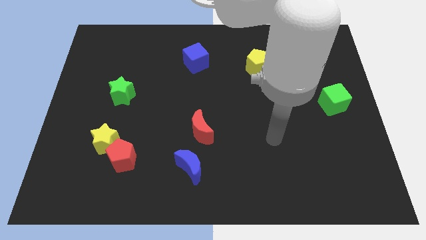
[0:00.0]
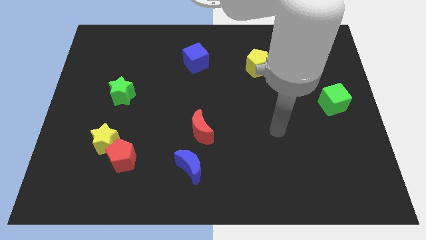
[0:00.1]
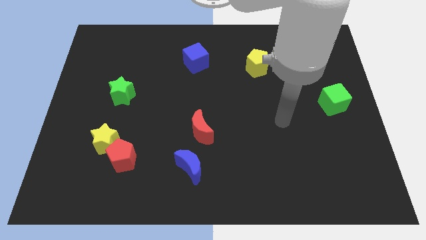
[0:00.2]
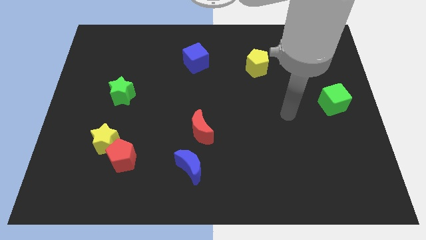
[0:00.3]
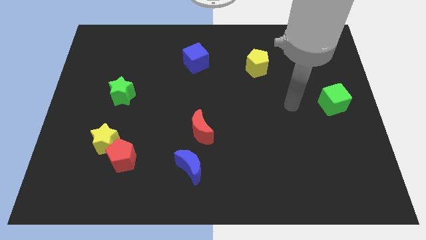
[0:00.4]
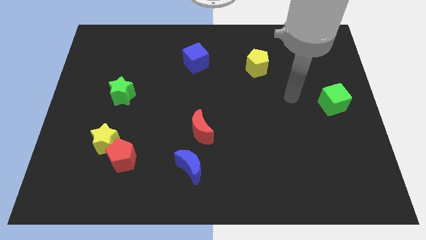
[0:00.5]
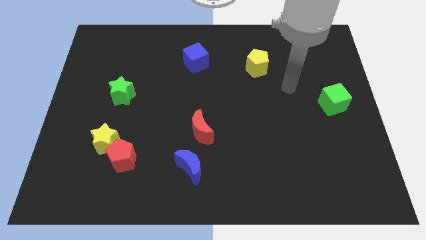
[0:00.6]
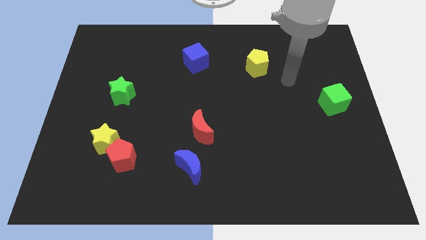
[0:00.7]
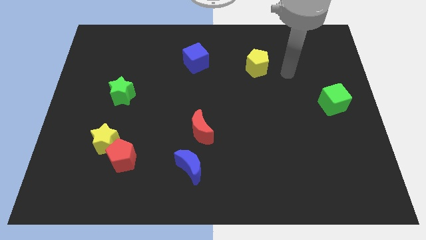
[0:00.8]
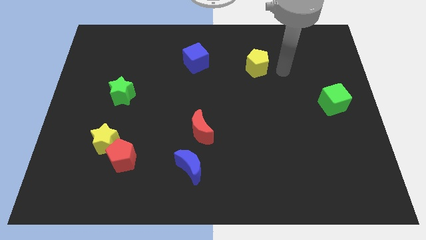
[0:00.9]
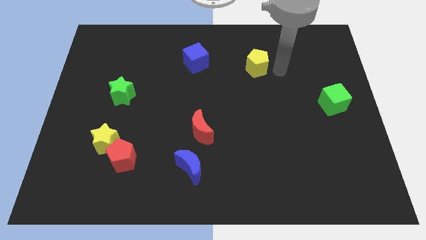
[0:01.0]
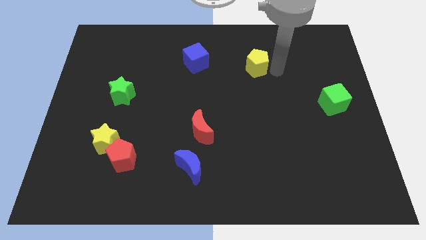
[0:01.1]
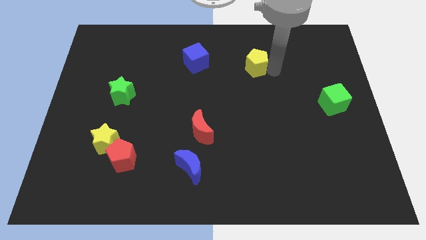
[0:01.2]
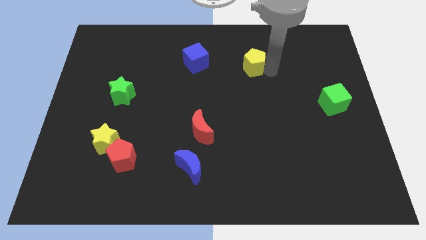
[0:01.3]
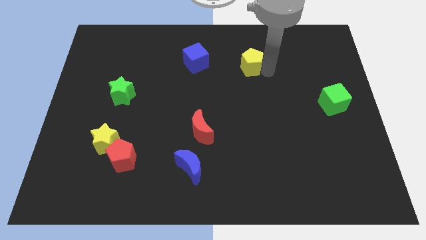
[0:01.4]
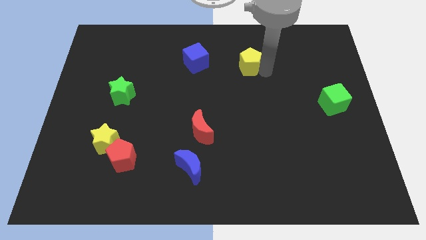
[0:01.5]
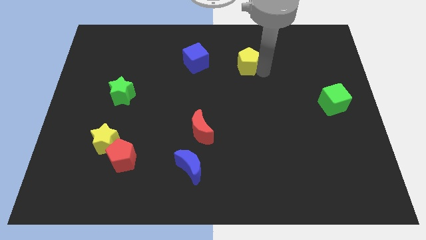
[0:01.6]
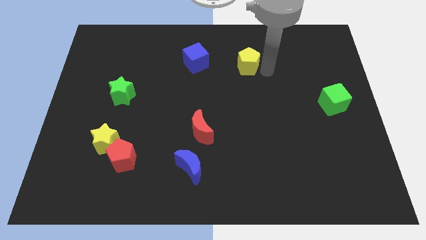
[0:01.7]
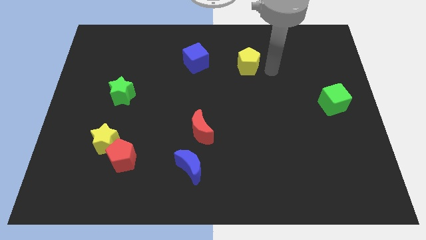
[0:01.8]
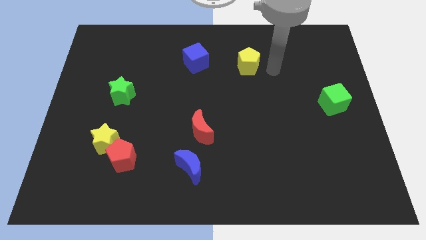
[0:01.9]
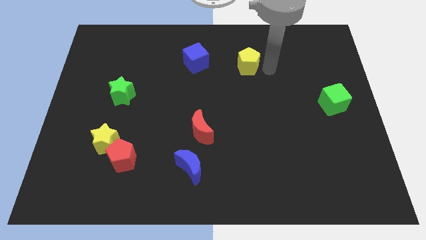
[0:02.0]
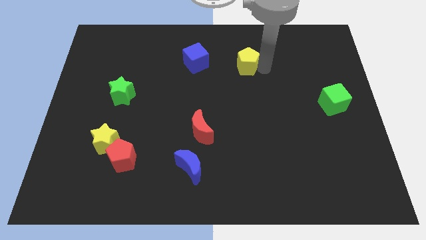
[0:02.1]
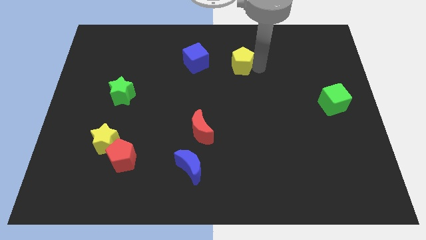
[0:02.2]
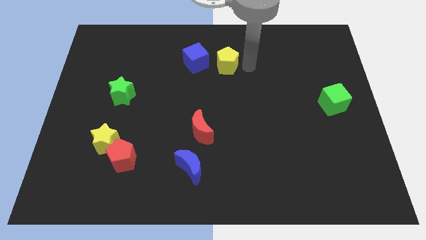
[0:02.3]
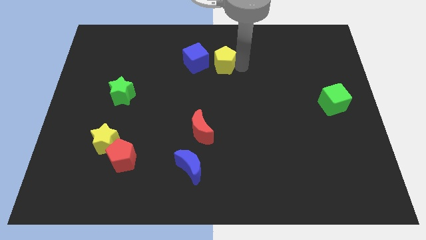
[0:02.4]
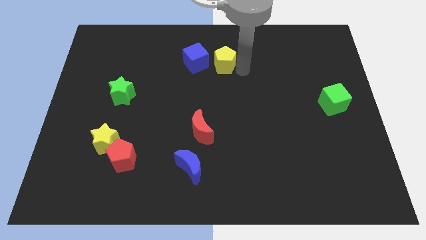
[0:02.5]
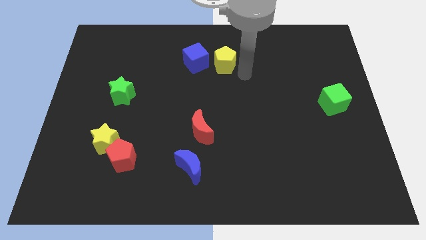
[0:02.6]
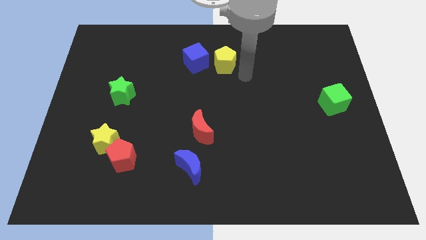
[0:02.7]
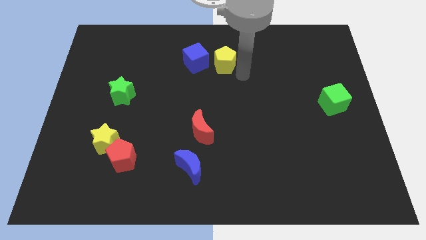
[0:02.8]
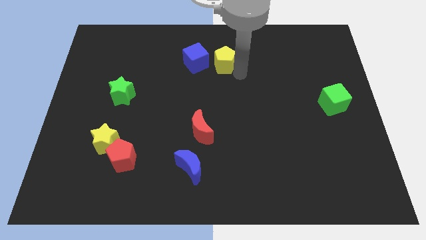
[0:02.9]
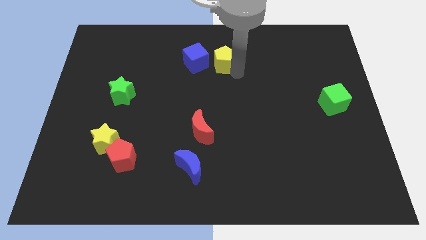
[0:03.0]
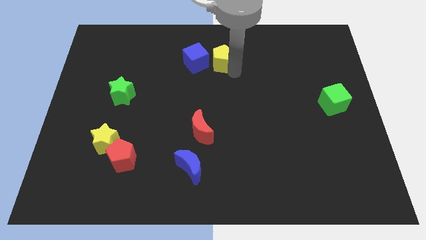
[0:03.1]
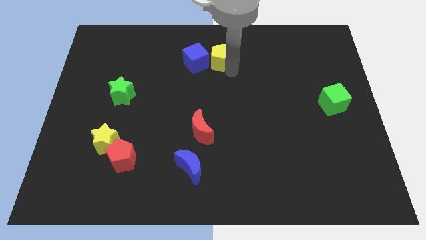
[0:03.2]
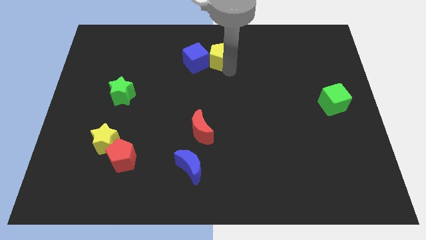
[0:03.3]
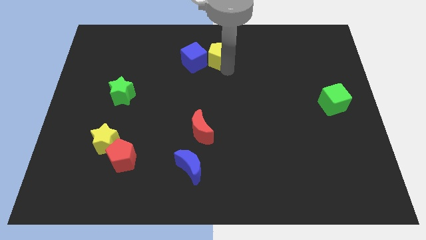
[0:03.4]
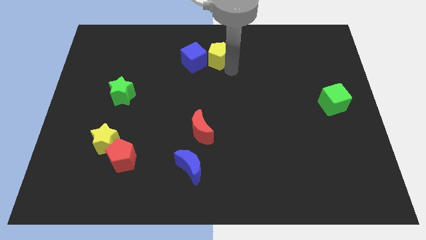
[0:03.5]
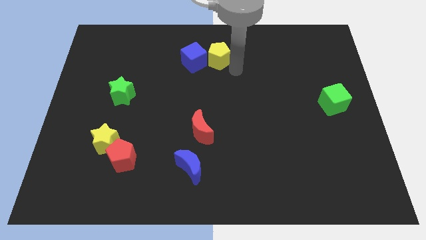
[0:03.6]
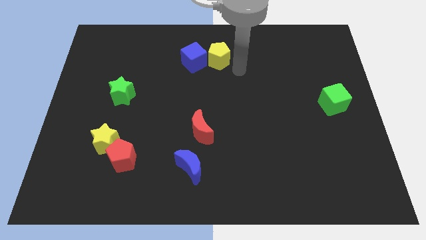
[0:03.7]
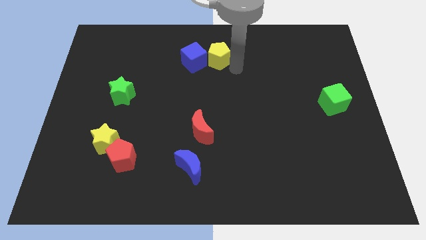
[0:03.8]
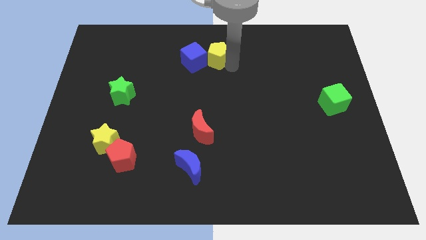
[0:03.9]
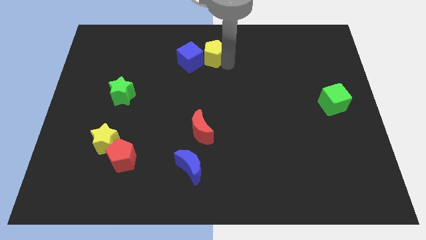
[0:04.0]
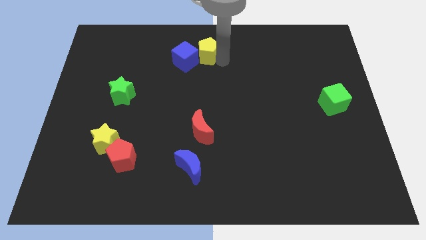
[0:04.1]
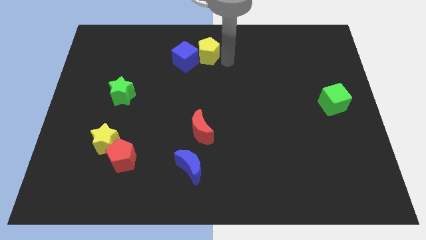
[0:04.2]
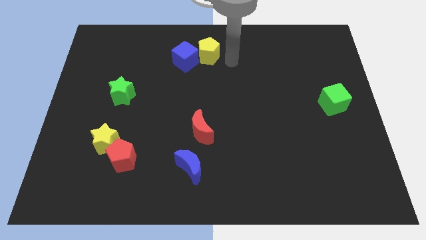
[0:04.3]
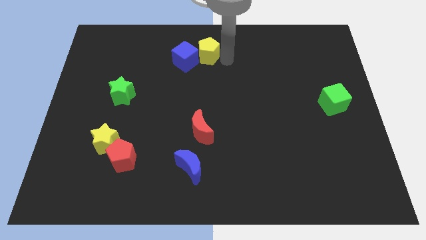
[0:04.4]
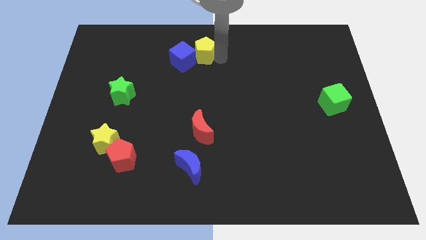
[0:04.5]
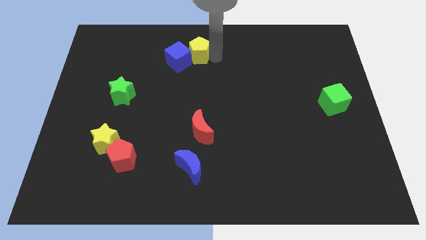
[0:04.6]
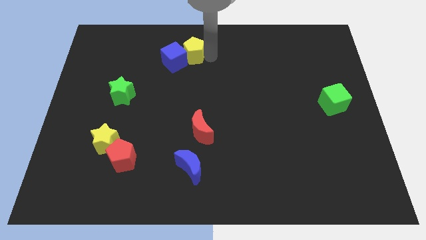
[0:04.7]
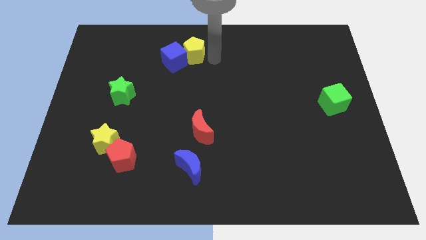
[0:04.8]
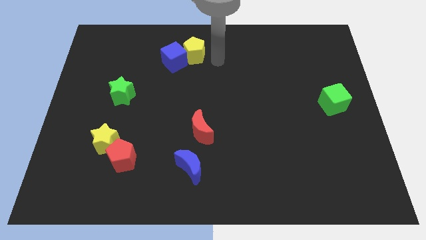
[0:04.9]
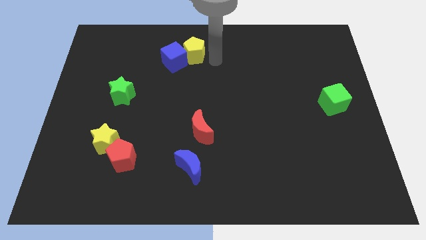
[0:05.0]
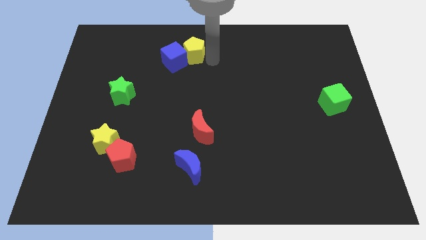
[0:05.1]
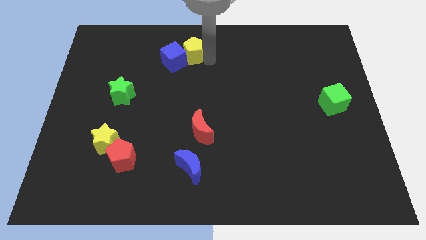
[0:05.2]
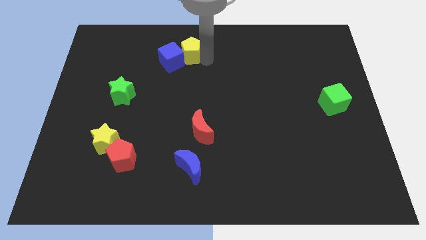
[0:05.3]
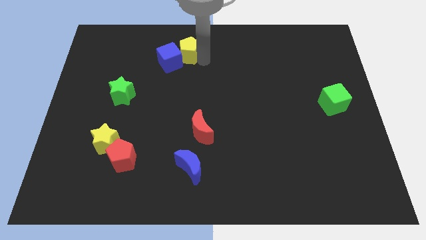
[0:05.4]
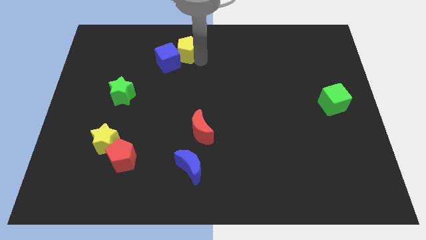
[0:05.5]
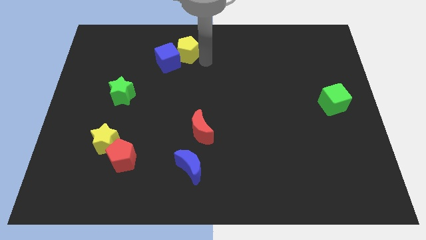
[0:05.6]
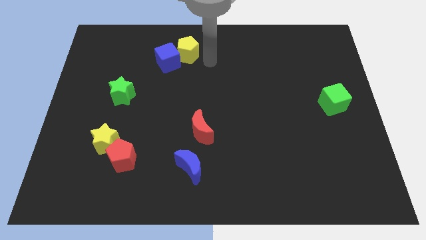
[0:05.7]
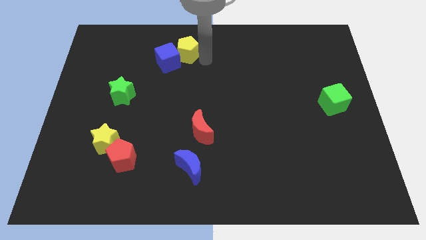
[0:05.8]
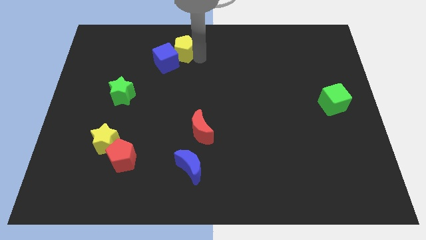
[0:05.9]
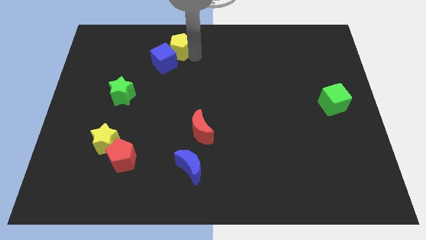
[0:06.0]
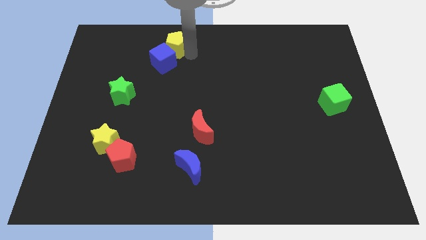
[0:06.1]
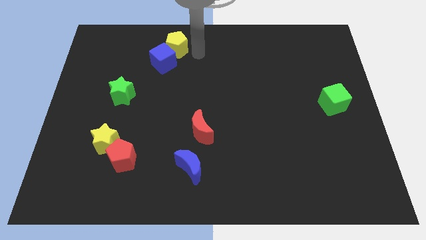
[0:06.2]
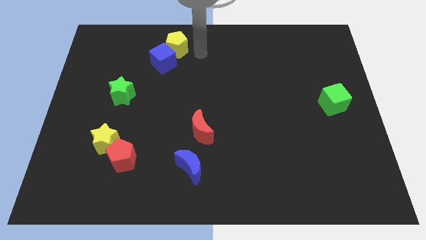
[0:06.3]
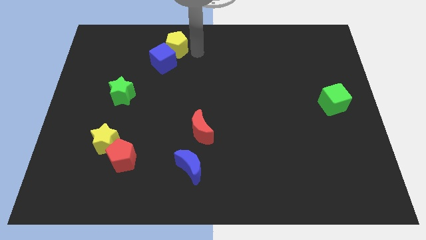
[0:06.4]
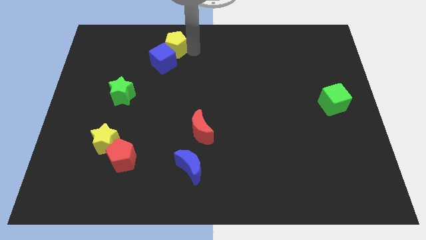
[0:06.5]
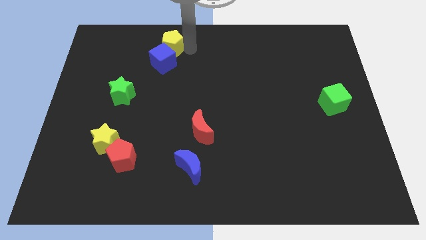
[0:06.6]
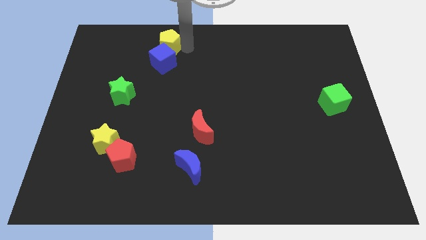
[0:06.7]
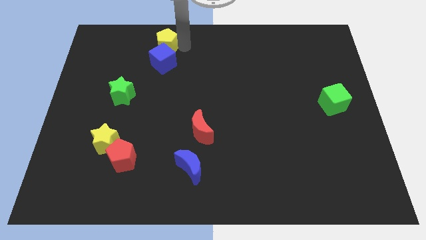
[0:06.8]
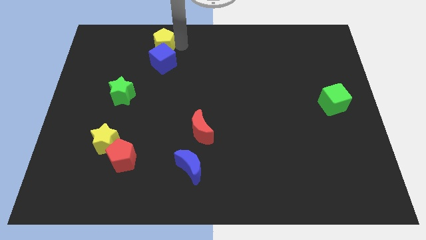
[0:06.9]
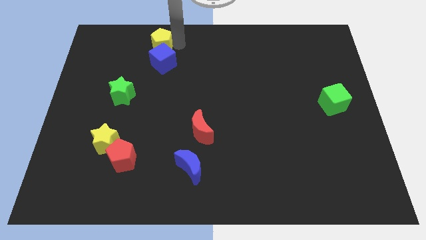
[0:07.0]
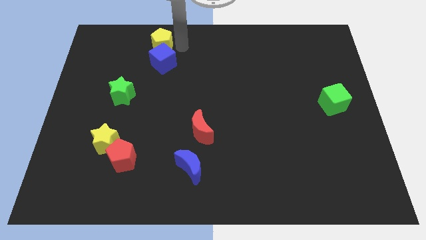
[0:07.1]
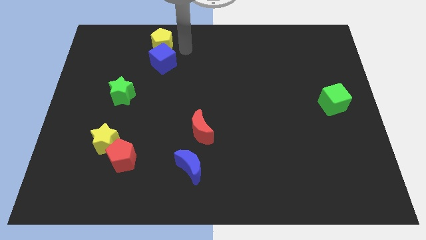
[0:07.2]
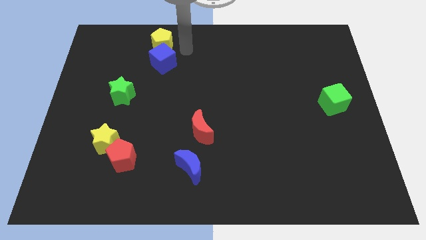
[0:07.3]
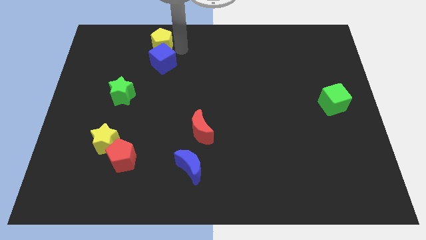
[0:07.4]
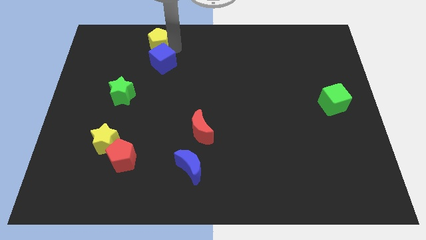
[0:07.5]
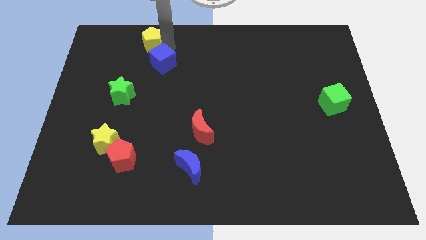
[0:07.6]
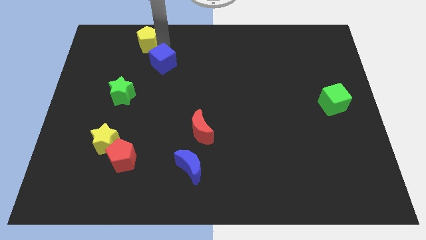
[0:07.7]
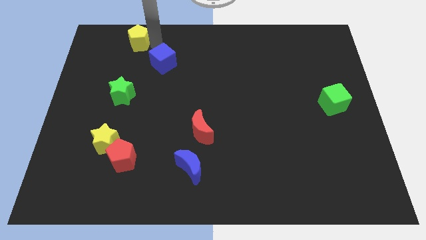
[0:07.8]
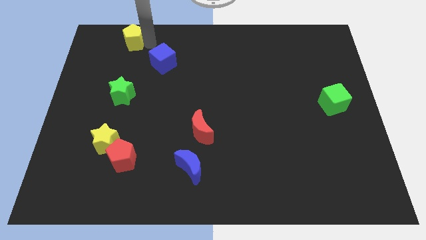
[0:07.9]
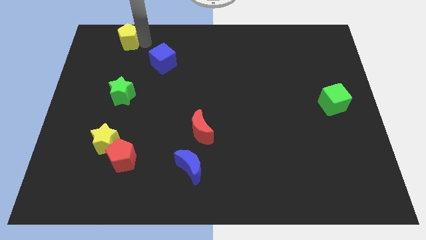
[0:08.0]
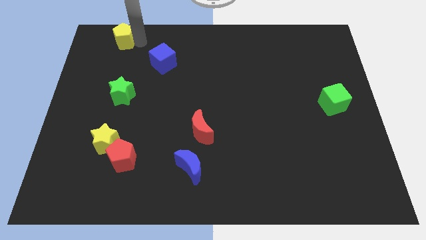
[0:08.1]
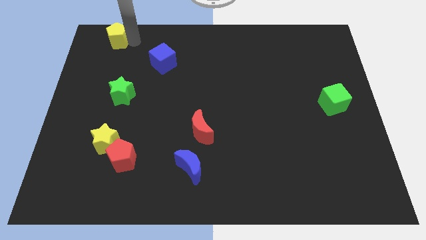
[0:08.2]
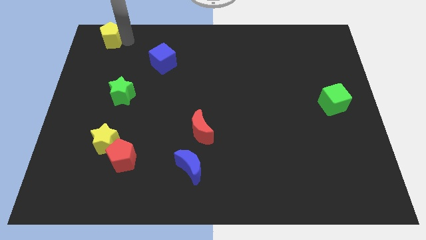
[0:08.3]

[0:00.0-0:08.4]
slide the yellow pentagon to the top left
